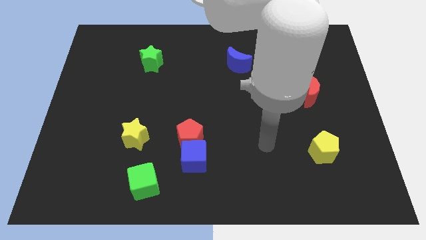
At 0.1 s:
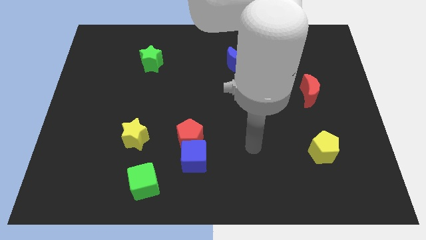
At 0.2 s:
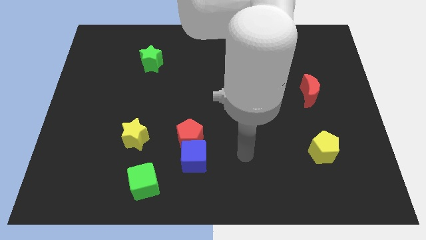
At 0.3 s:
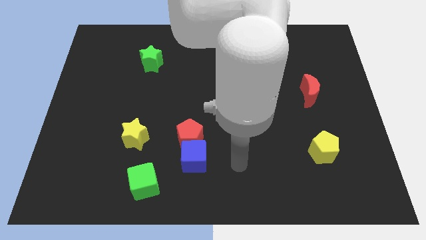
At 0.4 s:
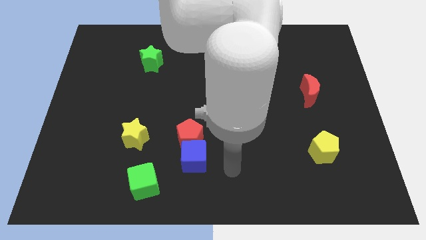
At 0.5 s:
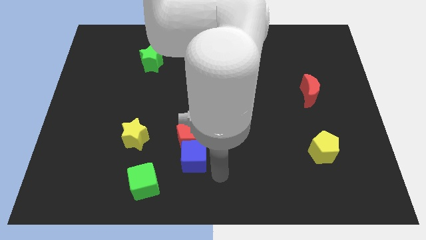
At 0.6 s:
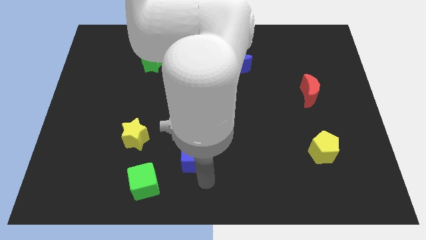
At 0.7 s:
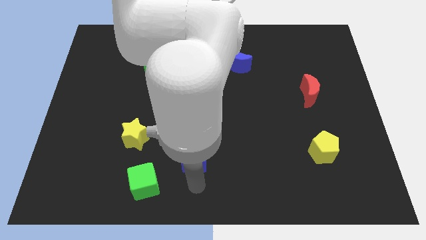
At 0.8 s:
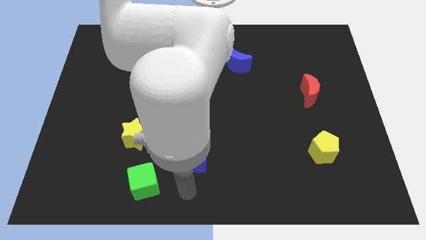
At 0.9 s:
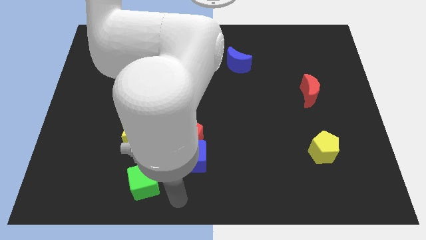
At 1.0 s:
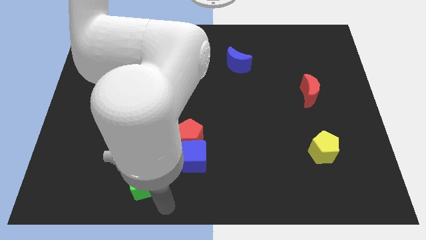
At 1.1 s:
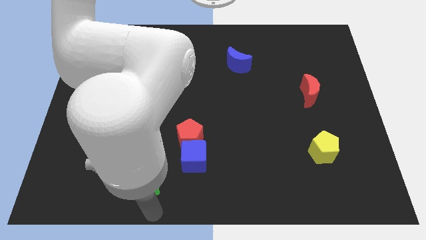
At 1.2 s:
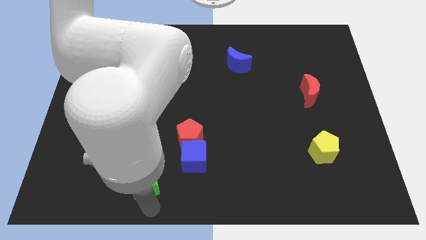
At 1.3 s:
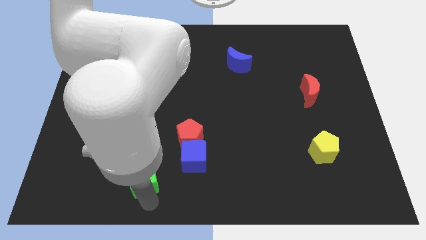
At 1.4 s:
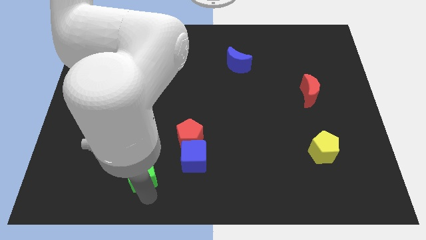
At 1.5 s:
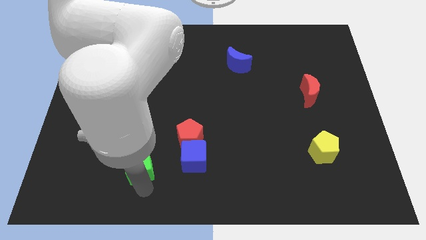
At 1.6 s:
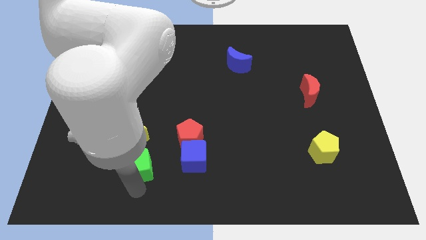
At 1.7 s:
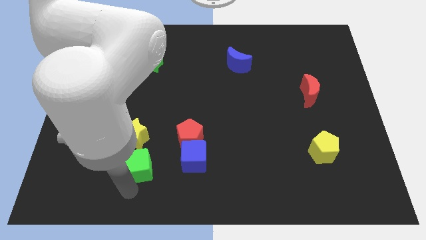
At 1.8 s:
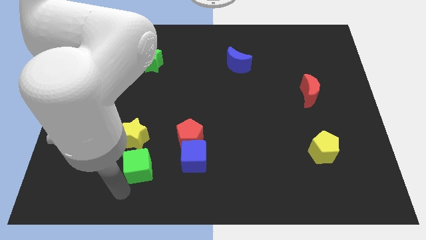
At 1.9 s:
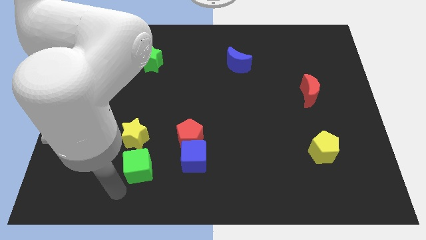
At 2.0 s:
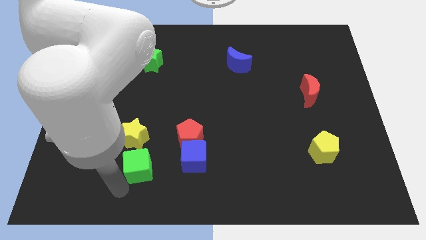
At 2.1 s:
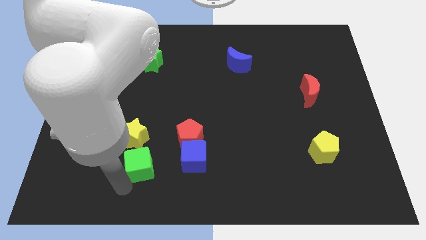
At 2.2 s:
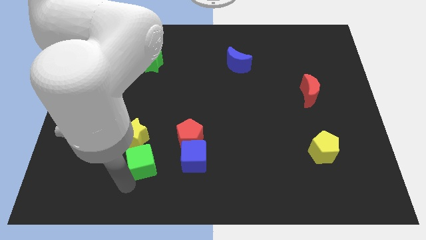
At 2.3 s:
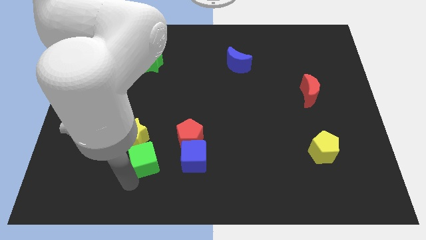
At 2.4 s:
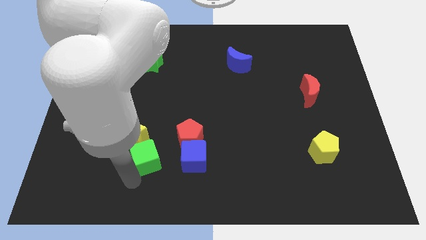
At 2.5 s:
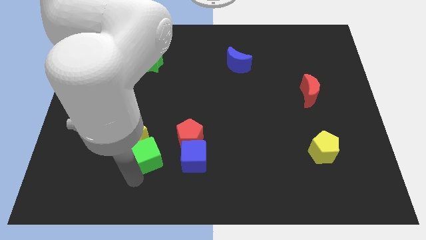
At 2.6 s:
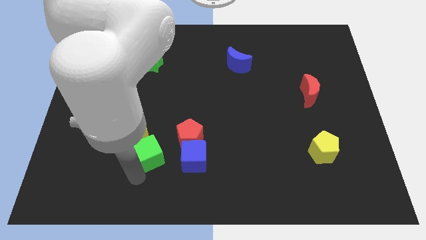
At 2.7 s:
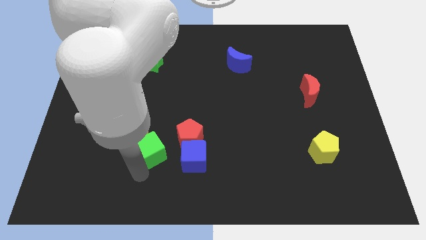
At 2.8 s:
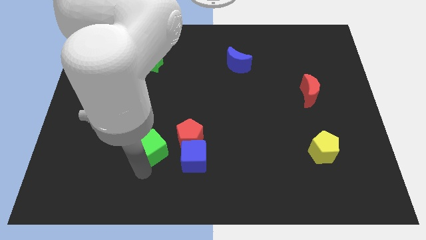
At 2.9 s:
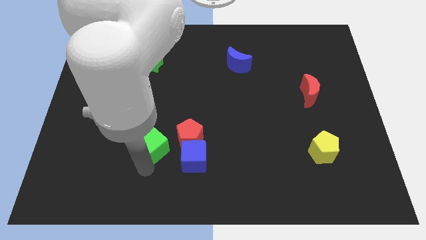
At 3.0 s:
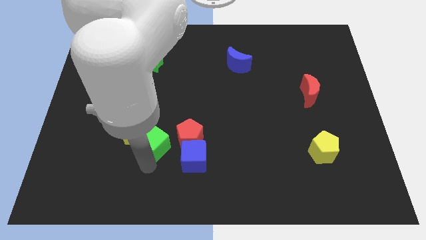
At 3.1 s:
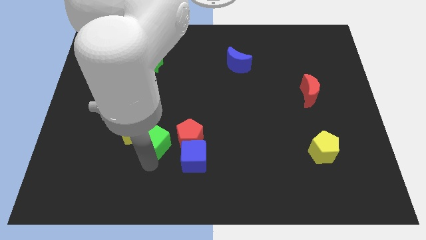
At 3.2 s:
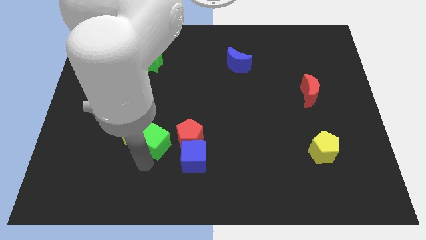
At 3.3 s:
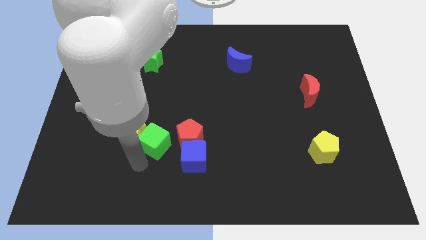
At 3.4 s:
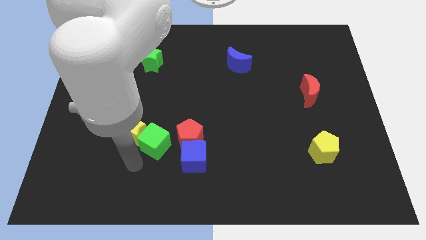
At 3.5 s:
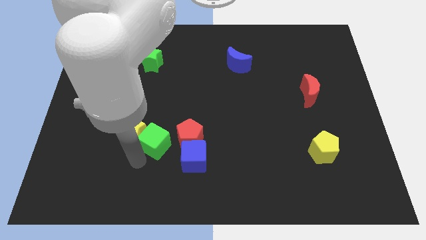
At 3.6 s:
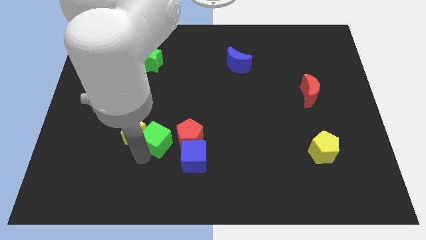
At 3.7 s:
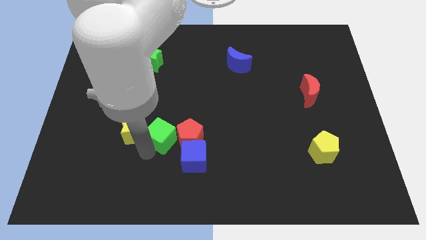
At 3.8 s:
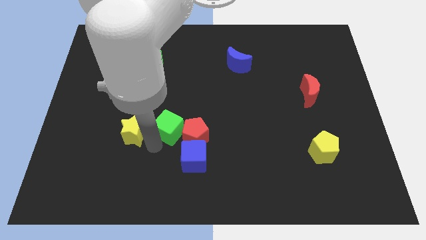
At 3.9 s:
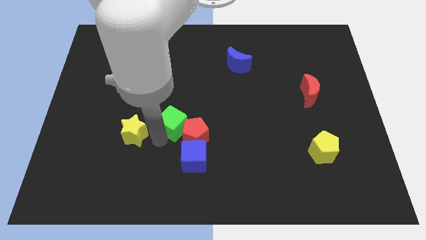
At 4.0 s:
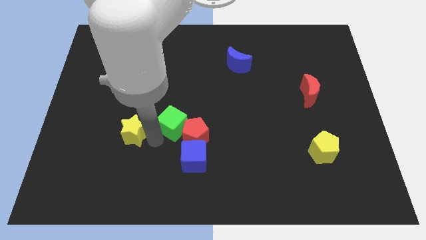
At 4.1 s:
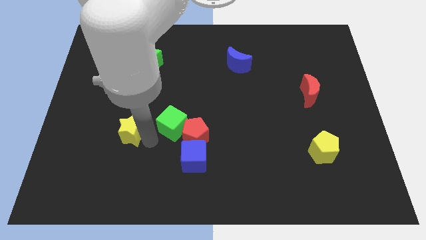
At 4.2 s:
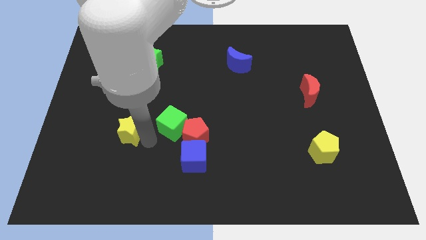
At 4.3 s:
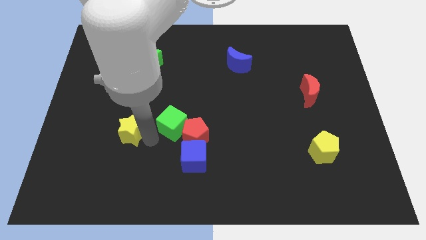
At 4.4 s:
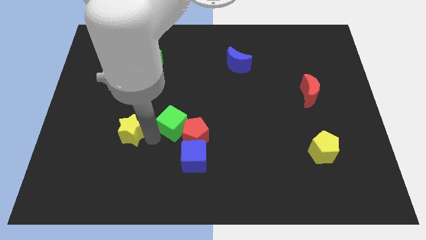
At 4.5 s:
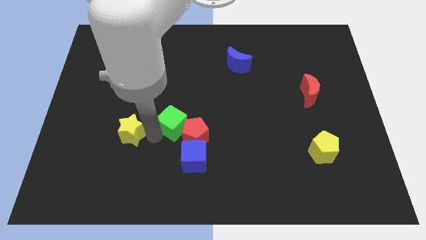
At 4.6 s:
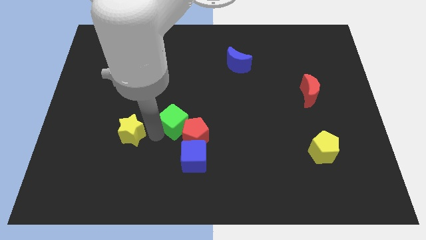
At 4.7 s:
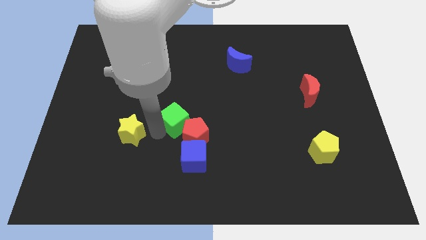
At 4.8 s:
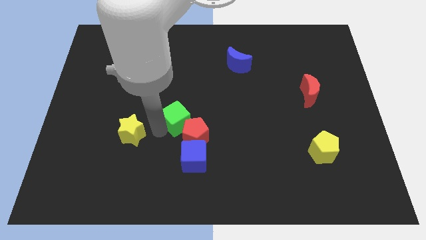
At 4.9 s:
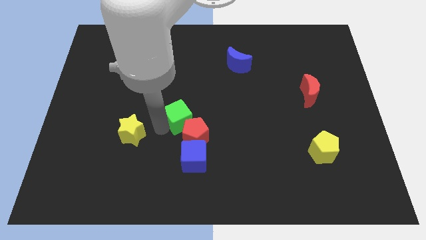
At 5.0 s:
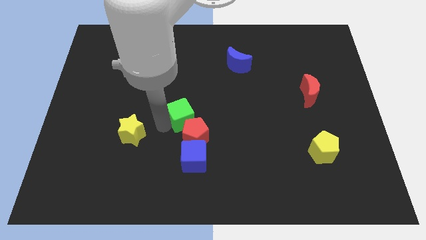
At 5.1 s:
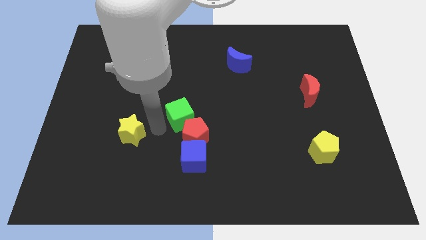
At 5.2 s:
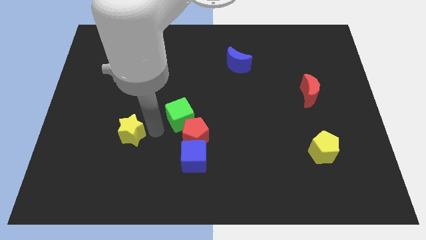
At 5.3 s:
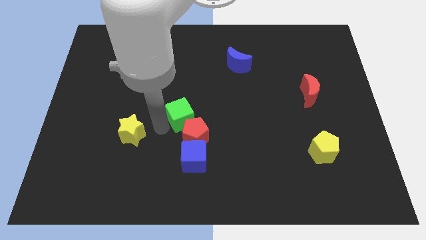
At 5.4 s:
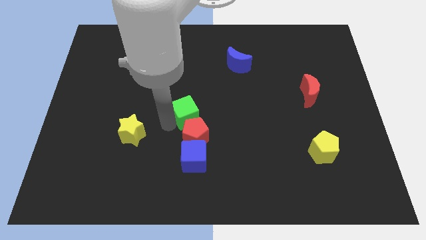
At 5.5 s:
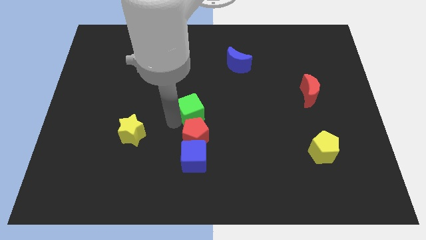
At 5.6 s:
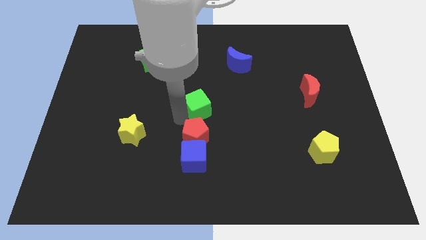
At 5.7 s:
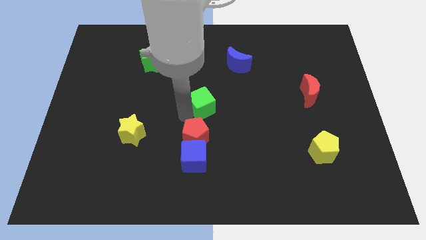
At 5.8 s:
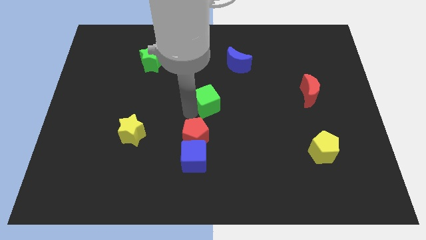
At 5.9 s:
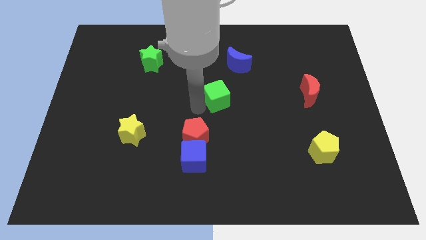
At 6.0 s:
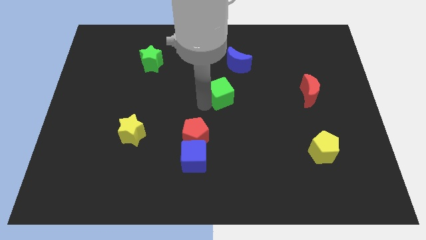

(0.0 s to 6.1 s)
slide the green cube to the bottom side of the blue moon
